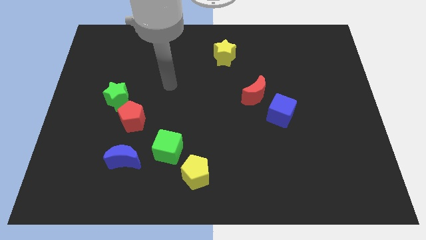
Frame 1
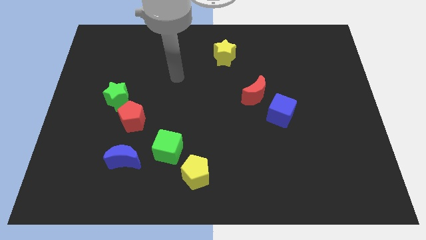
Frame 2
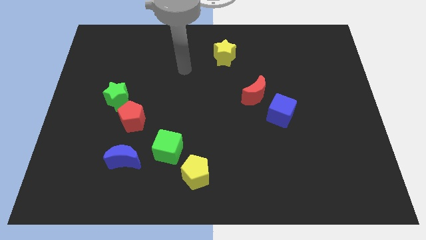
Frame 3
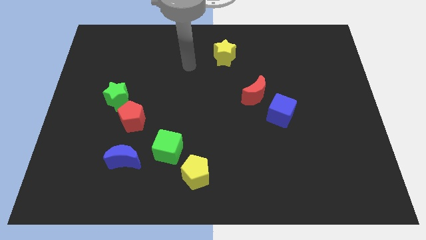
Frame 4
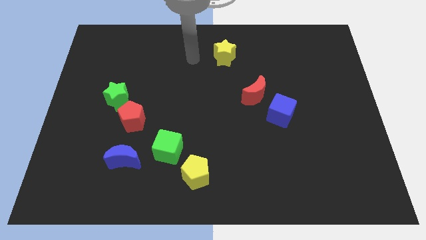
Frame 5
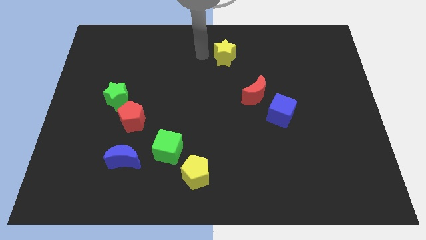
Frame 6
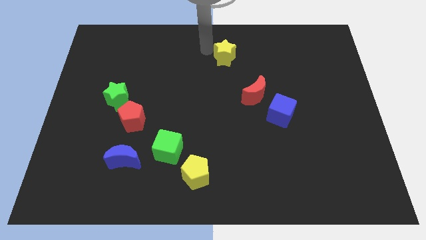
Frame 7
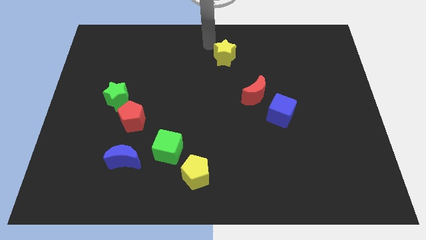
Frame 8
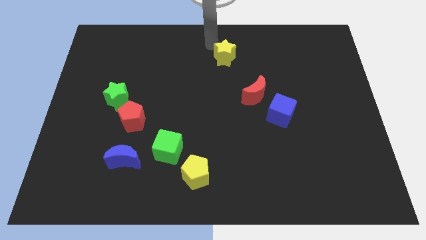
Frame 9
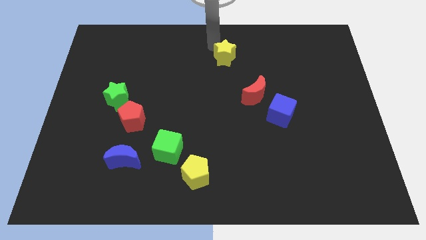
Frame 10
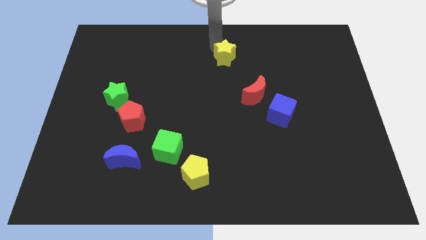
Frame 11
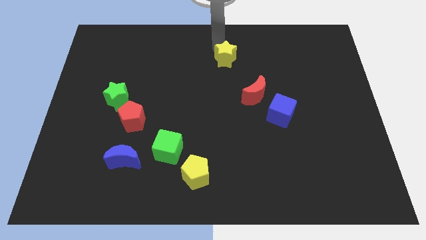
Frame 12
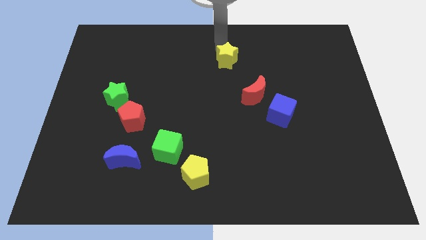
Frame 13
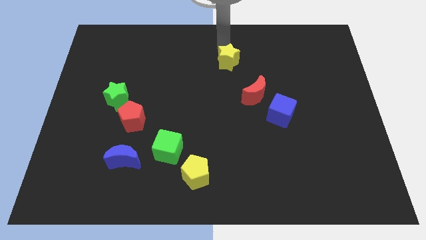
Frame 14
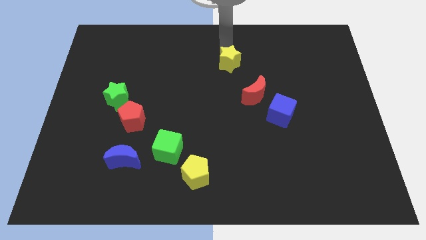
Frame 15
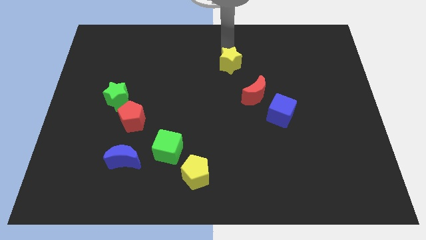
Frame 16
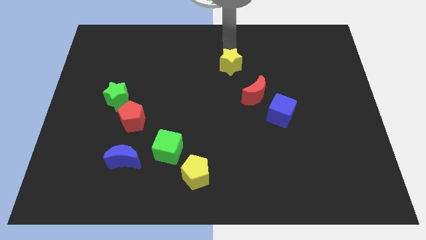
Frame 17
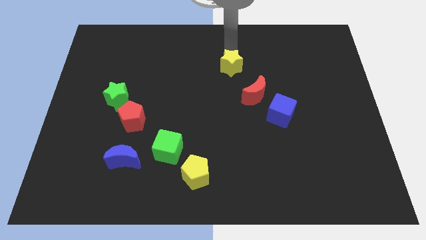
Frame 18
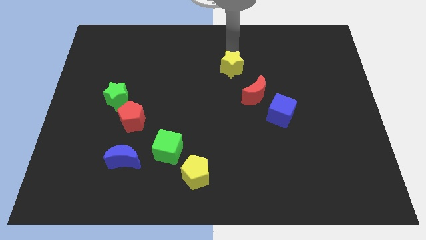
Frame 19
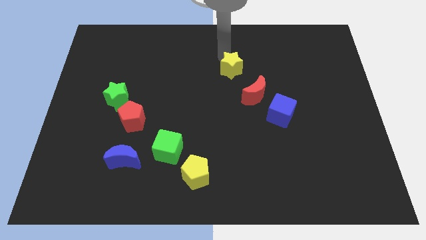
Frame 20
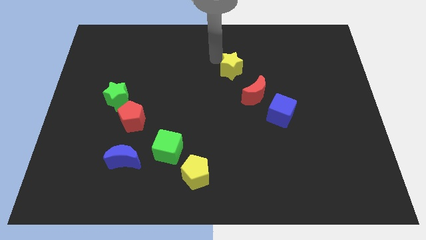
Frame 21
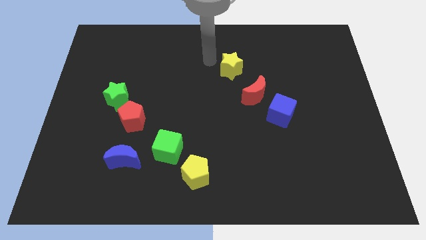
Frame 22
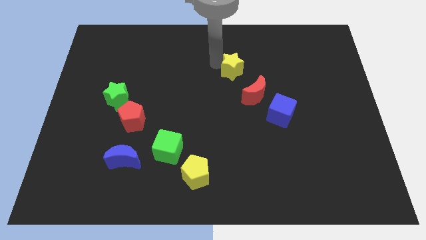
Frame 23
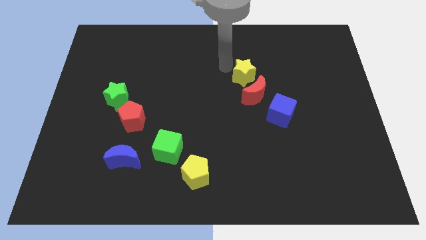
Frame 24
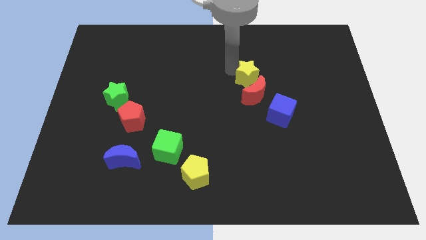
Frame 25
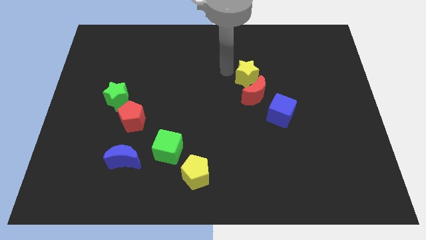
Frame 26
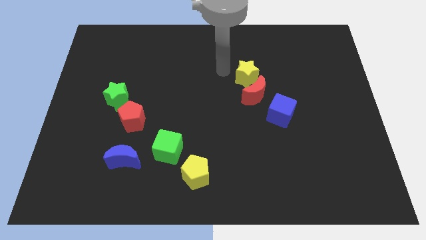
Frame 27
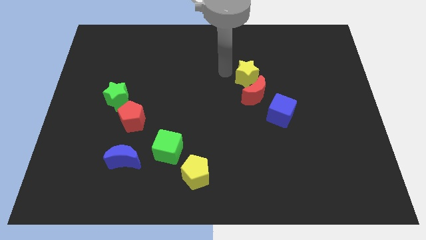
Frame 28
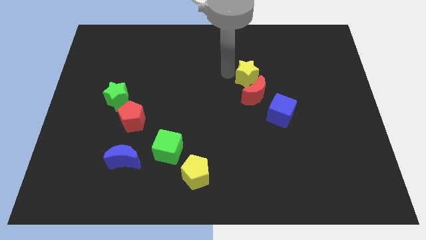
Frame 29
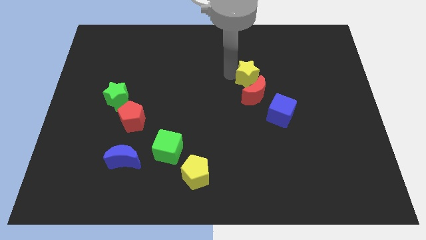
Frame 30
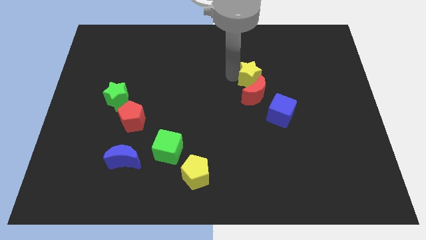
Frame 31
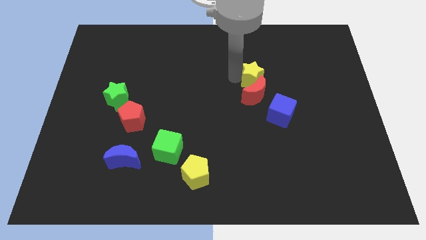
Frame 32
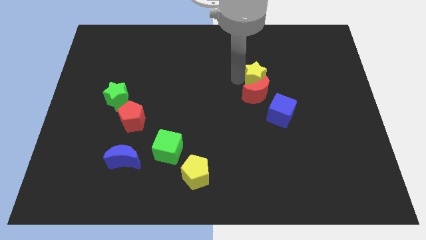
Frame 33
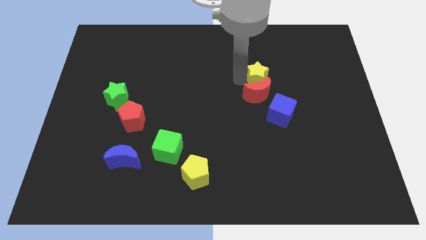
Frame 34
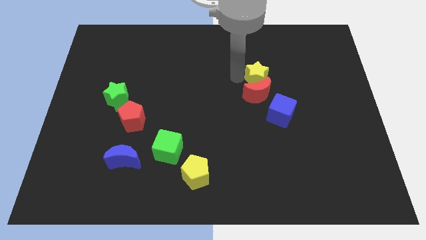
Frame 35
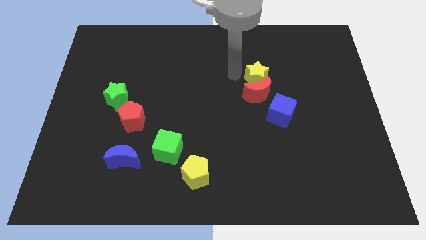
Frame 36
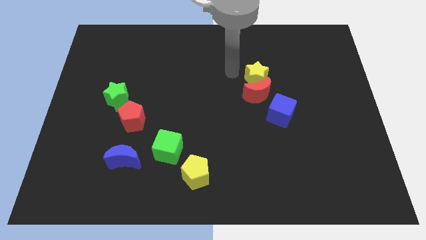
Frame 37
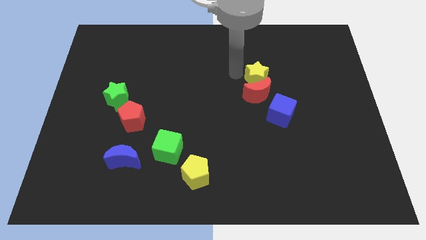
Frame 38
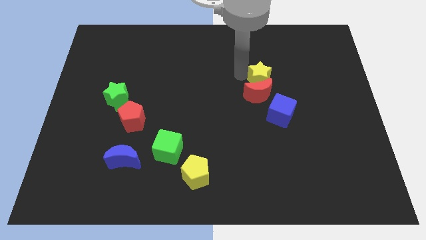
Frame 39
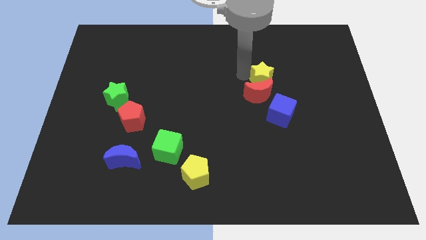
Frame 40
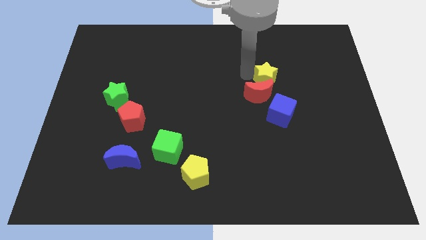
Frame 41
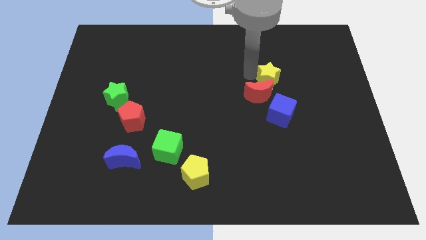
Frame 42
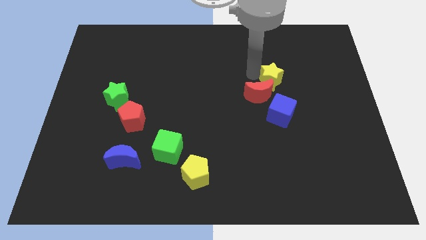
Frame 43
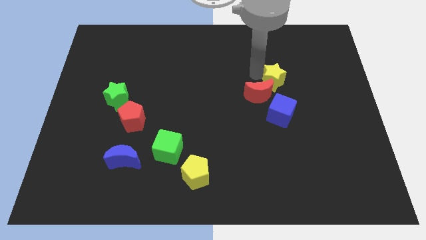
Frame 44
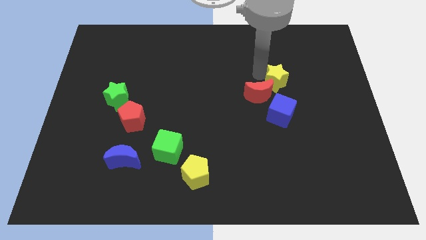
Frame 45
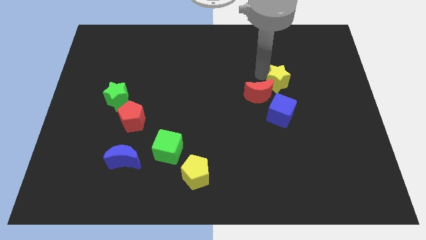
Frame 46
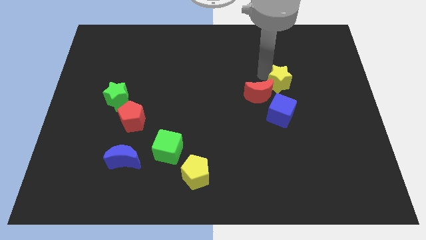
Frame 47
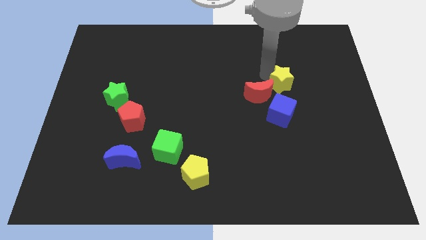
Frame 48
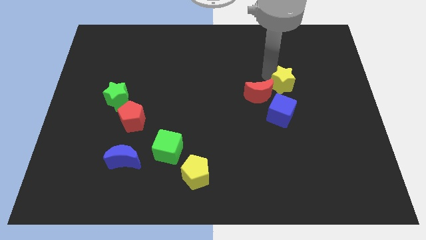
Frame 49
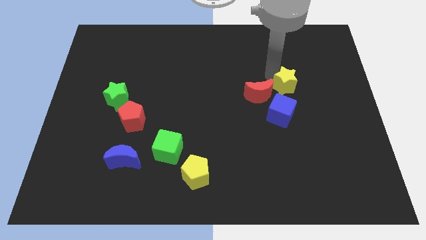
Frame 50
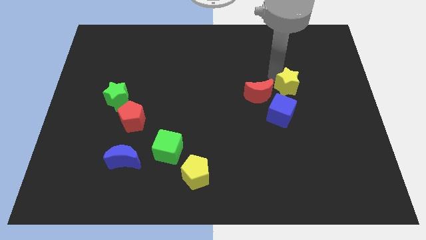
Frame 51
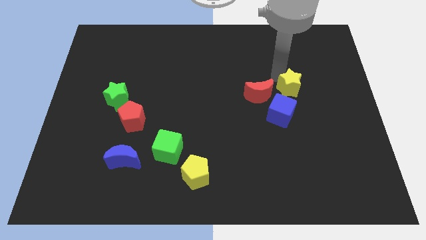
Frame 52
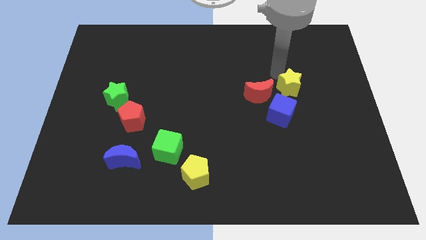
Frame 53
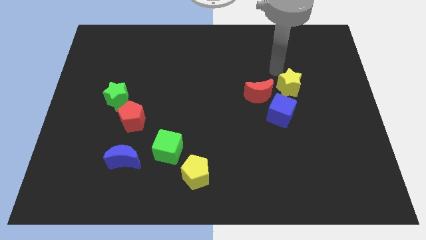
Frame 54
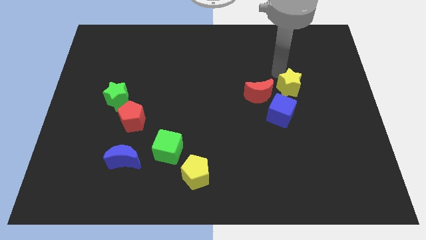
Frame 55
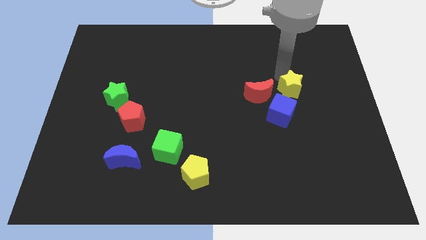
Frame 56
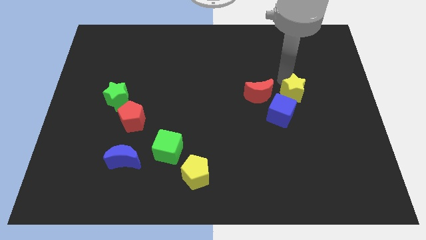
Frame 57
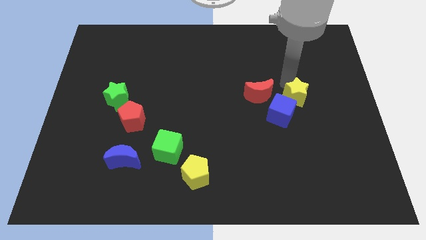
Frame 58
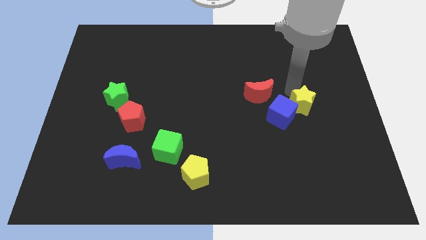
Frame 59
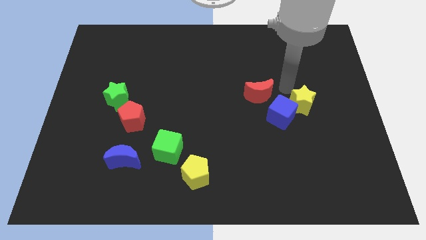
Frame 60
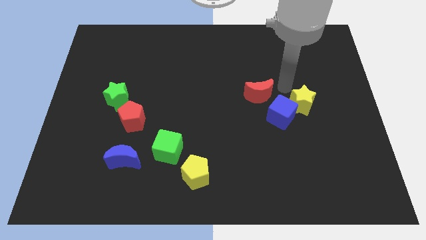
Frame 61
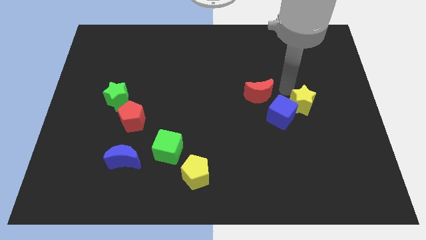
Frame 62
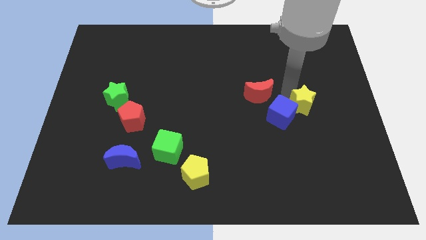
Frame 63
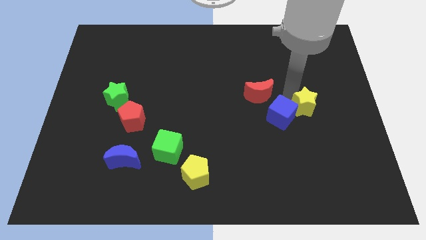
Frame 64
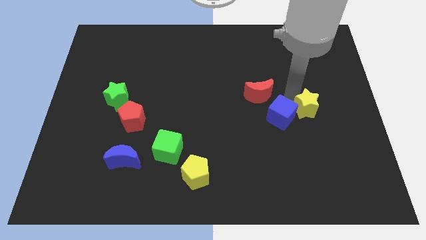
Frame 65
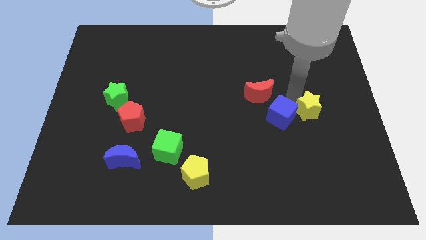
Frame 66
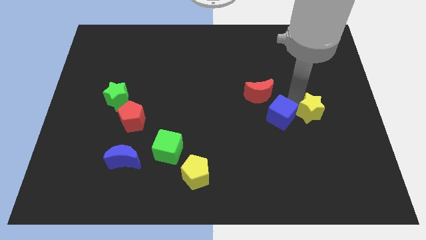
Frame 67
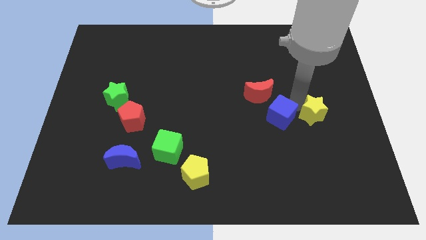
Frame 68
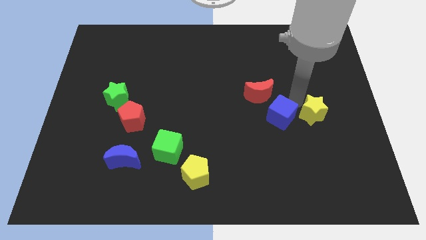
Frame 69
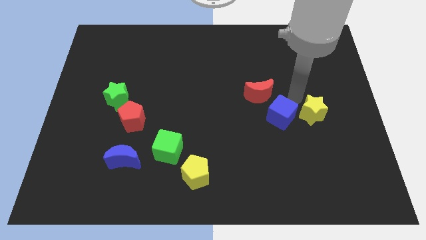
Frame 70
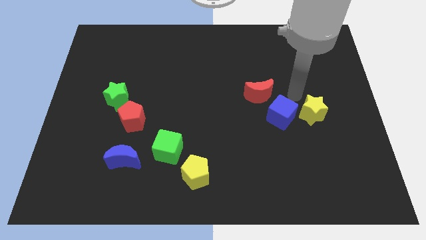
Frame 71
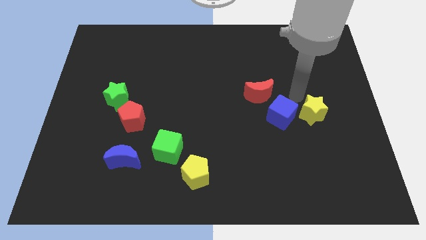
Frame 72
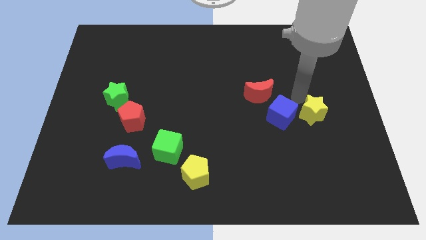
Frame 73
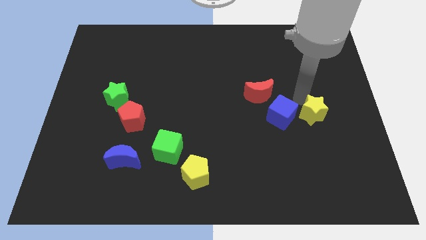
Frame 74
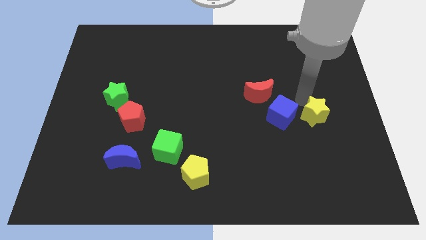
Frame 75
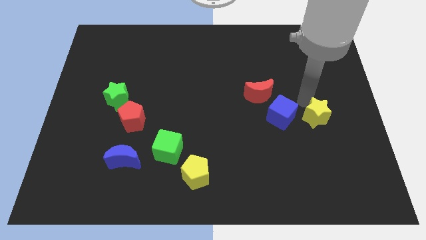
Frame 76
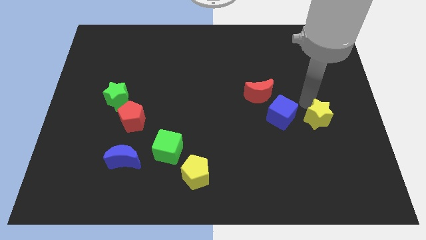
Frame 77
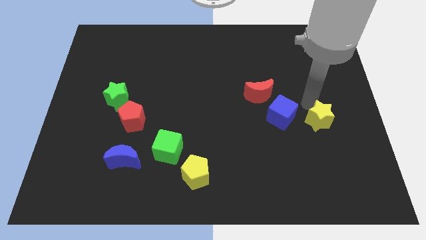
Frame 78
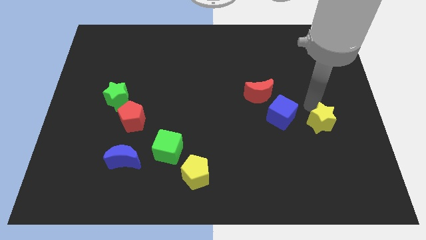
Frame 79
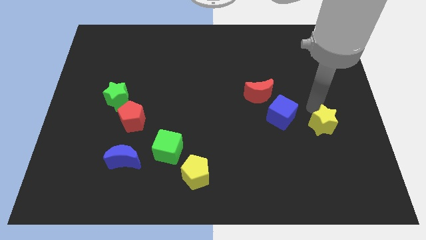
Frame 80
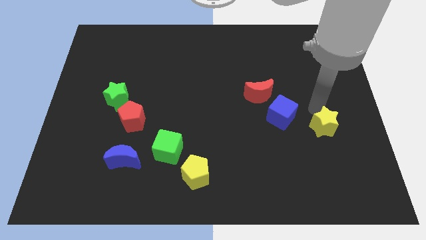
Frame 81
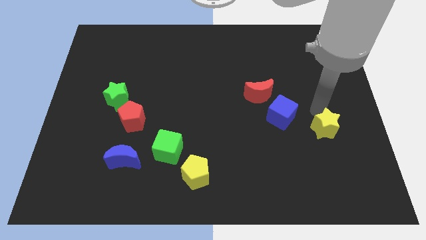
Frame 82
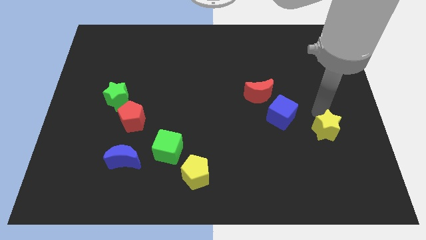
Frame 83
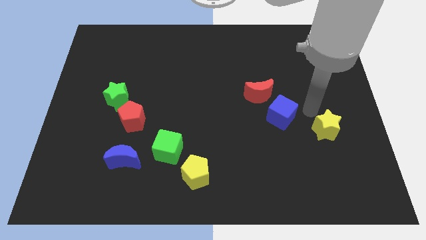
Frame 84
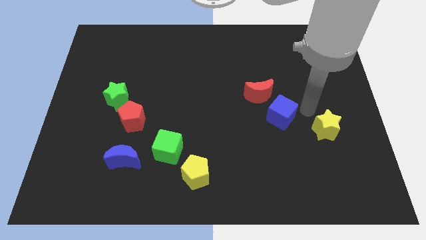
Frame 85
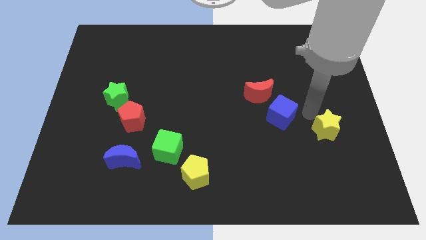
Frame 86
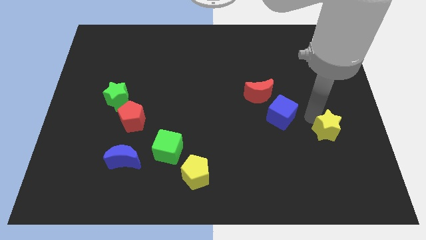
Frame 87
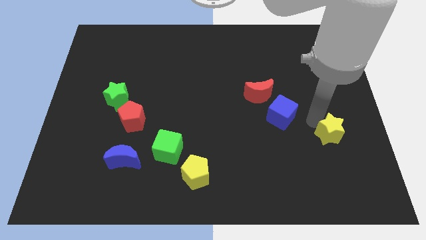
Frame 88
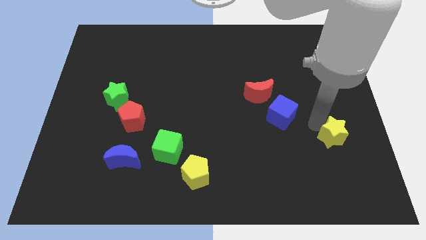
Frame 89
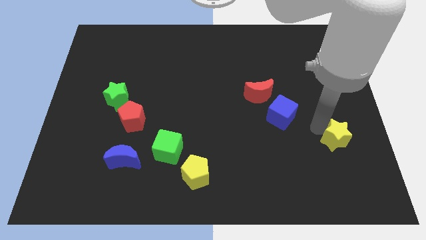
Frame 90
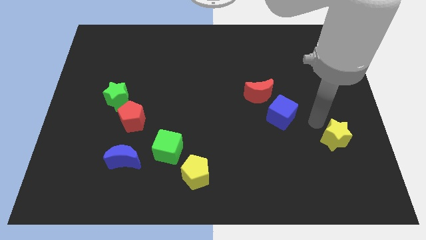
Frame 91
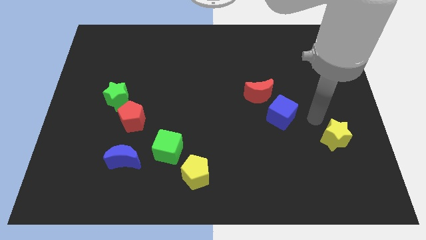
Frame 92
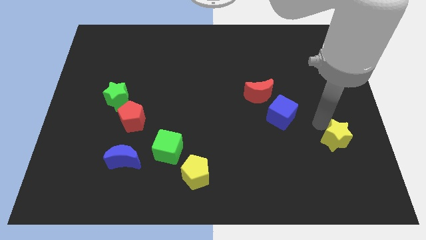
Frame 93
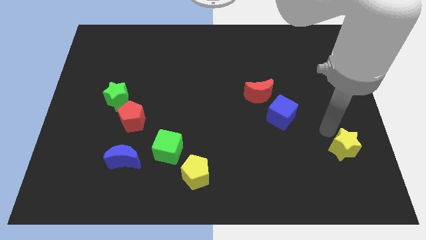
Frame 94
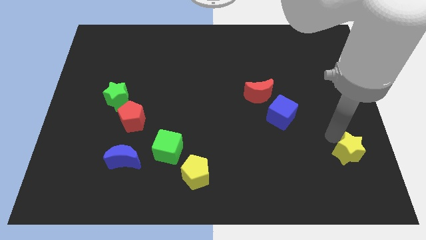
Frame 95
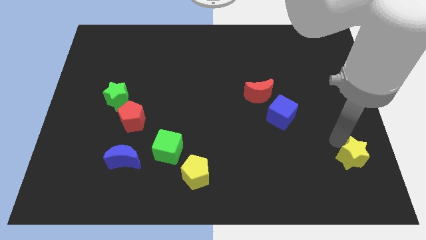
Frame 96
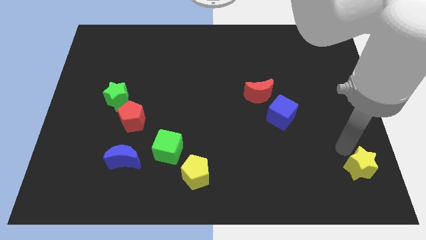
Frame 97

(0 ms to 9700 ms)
slide the yellow star to the bottom right corner
